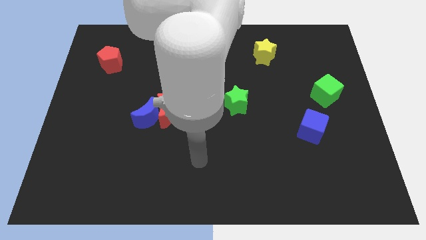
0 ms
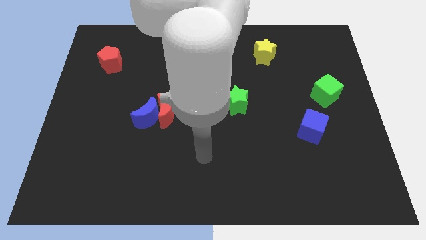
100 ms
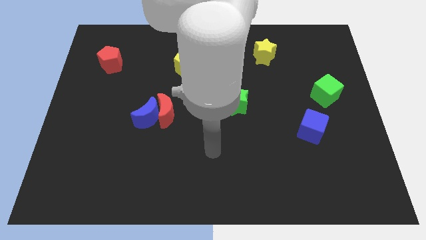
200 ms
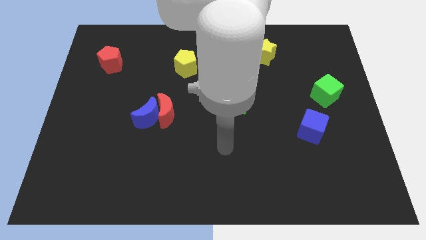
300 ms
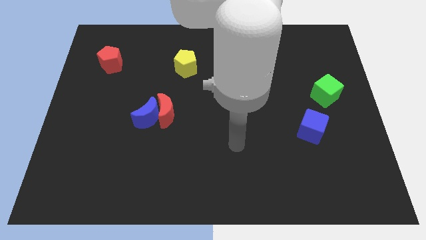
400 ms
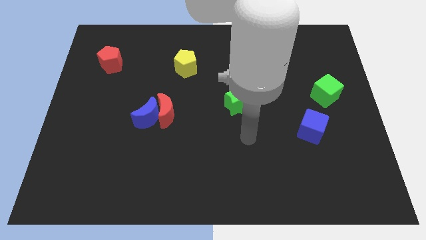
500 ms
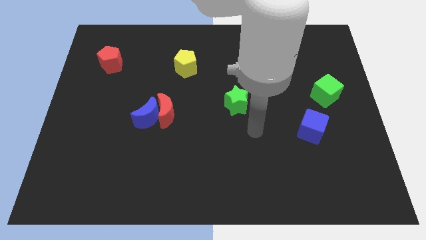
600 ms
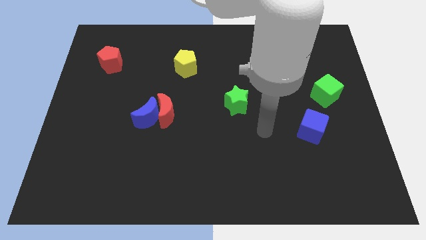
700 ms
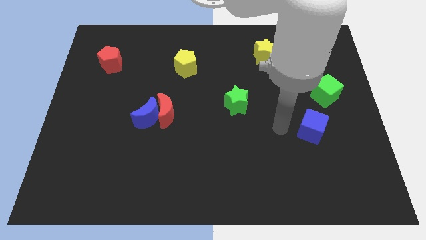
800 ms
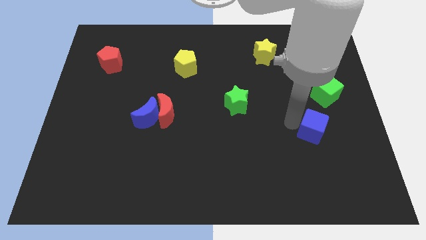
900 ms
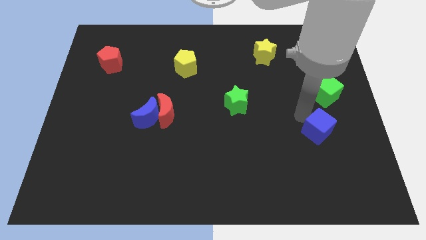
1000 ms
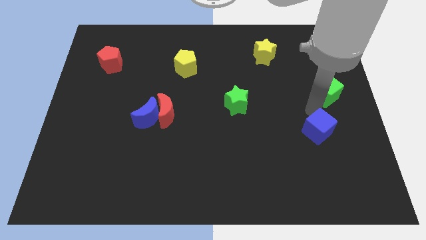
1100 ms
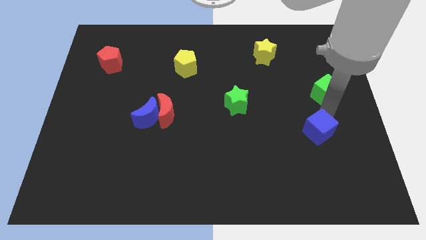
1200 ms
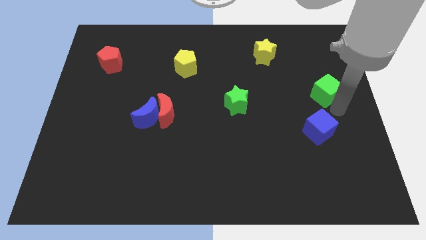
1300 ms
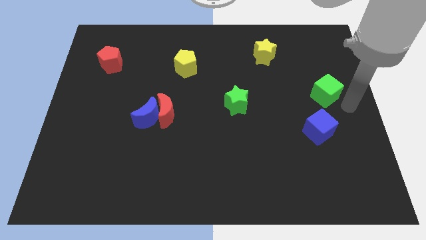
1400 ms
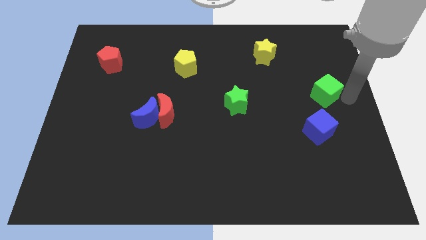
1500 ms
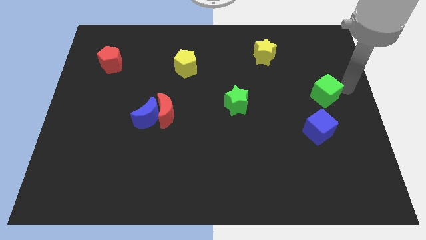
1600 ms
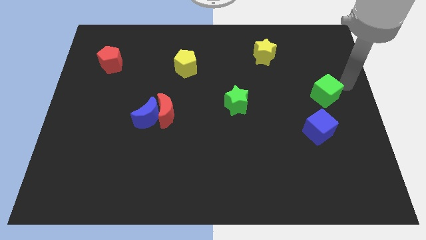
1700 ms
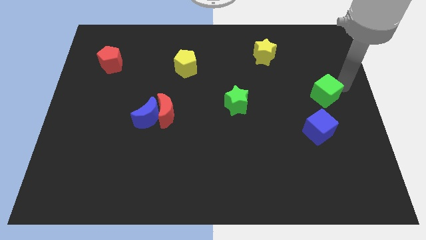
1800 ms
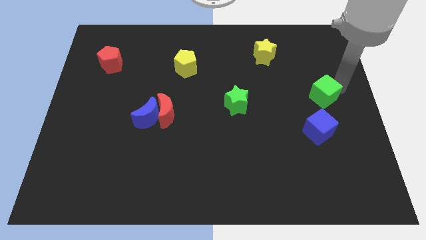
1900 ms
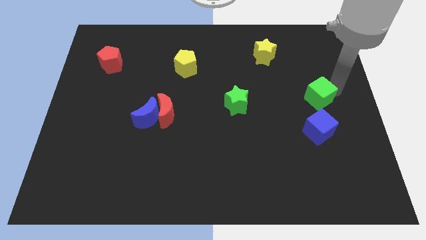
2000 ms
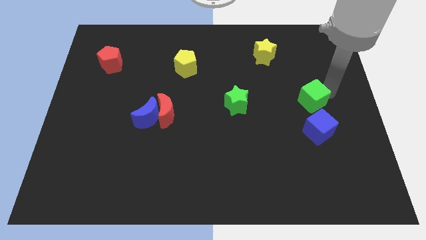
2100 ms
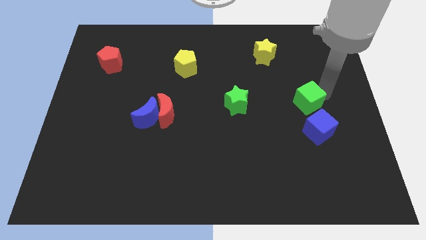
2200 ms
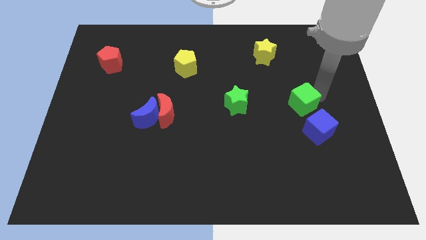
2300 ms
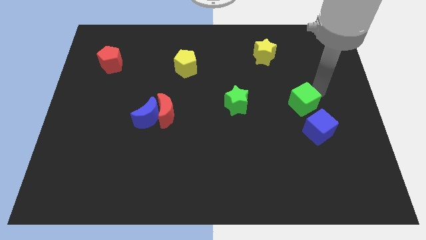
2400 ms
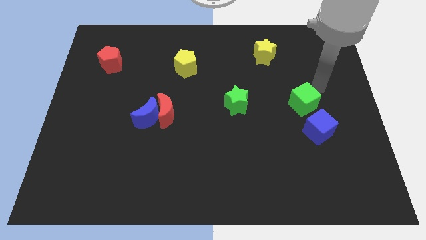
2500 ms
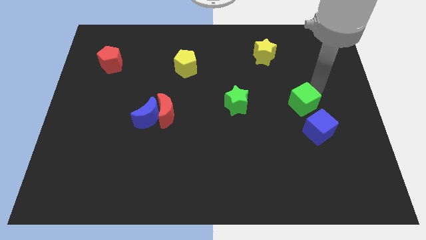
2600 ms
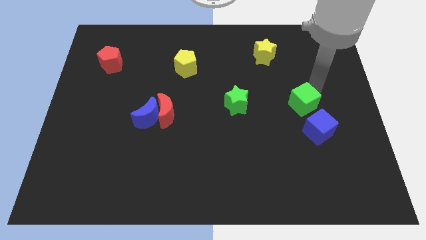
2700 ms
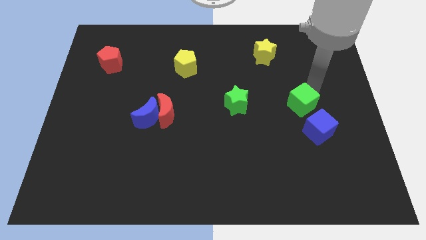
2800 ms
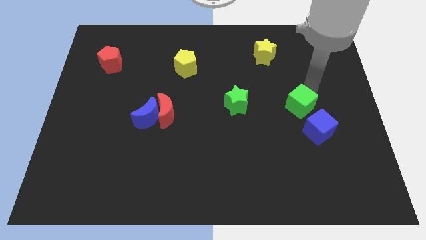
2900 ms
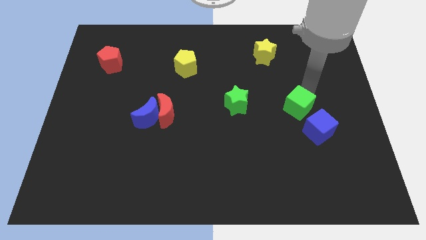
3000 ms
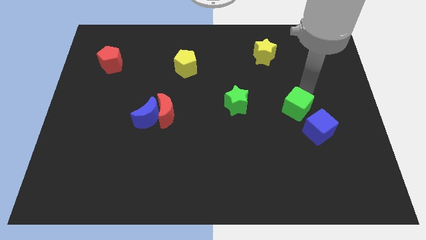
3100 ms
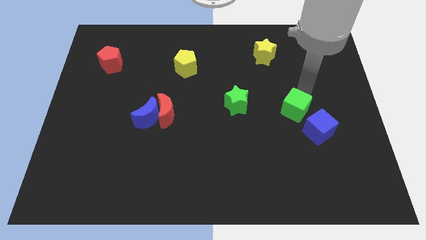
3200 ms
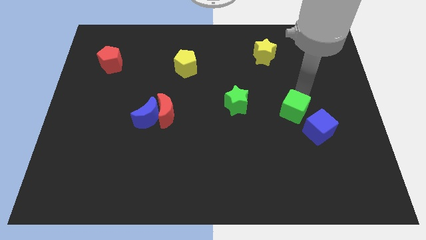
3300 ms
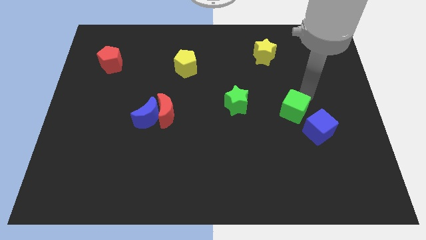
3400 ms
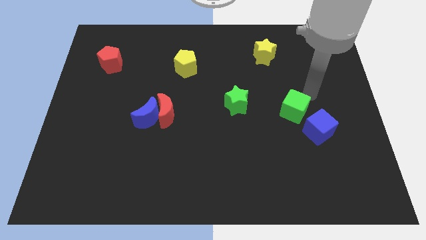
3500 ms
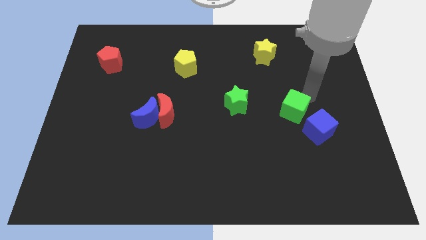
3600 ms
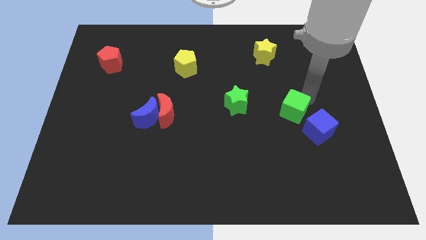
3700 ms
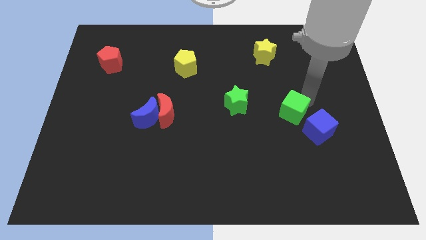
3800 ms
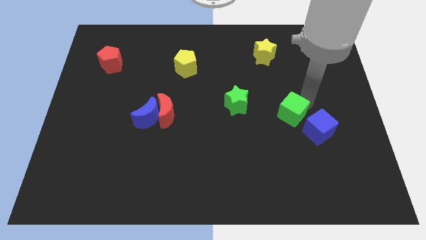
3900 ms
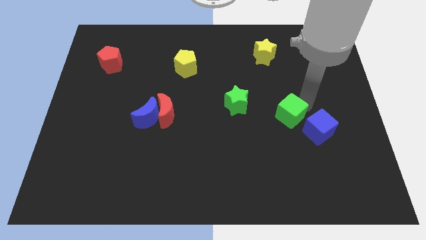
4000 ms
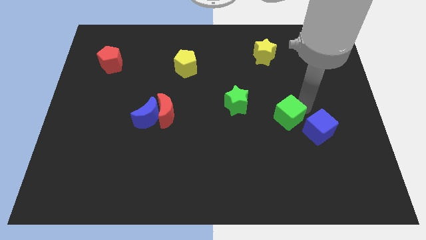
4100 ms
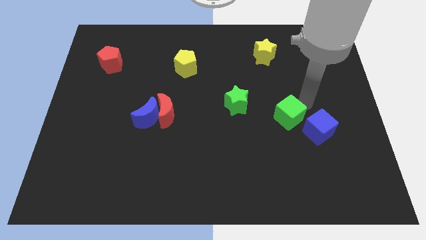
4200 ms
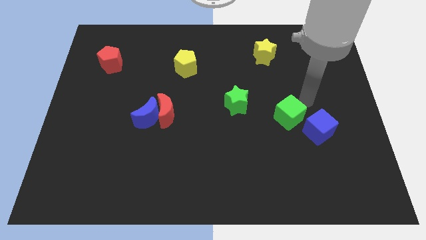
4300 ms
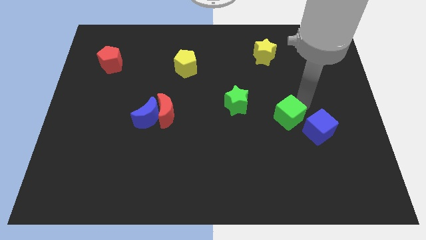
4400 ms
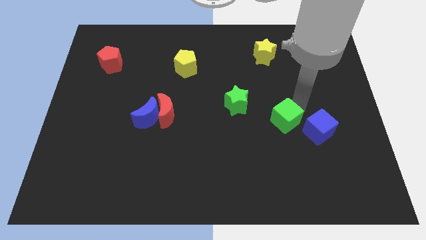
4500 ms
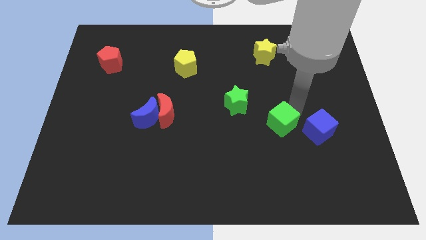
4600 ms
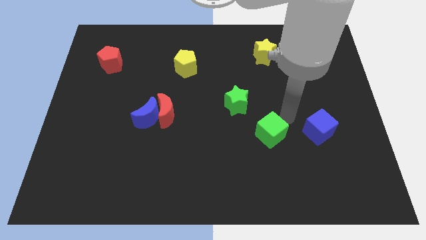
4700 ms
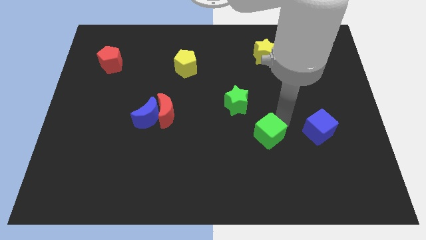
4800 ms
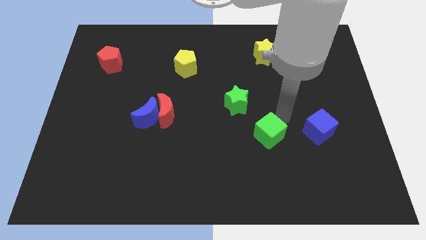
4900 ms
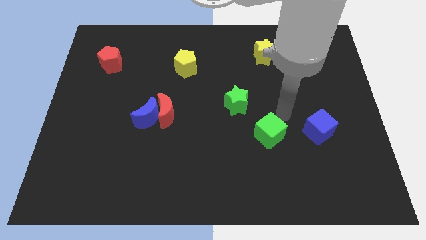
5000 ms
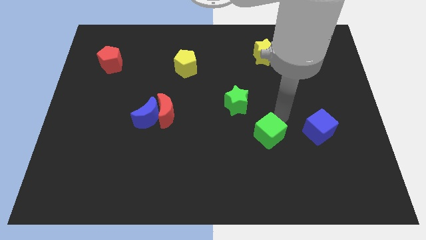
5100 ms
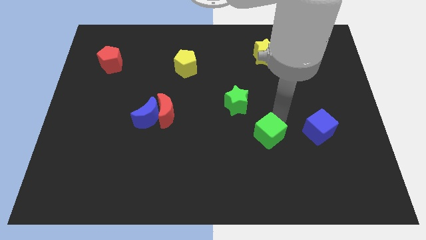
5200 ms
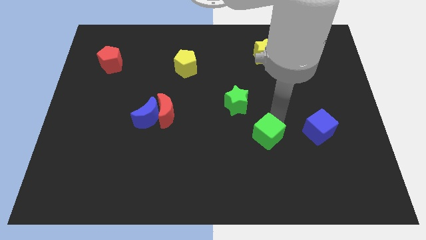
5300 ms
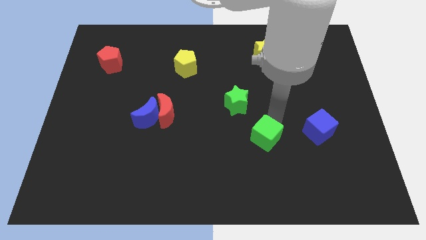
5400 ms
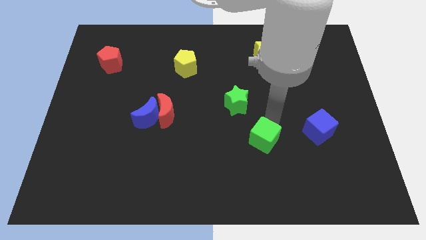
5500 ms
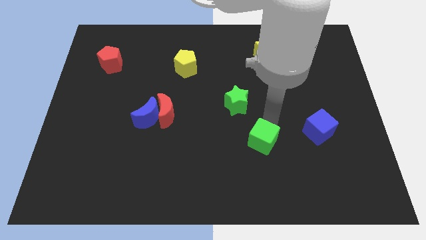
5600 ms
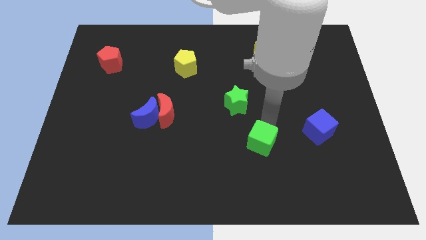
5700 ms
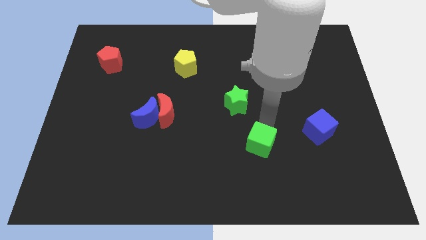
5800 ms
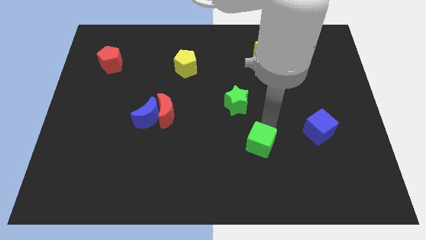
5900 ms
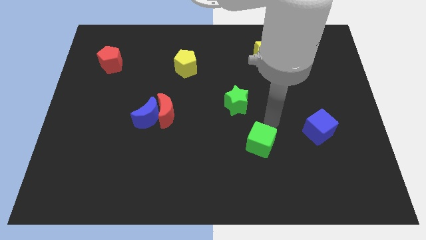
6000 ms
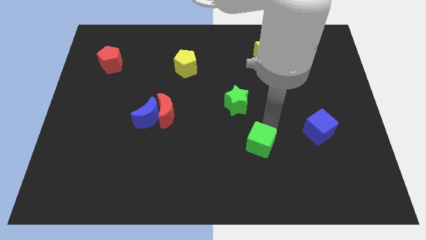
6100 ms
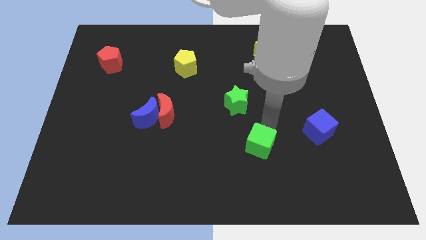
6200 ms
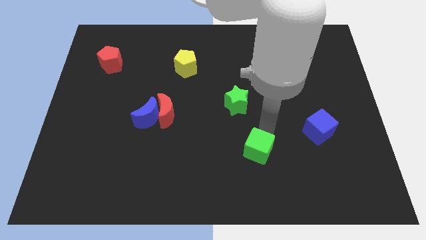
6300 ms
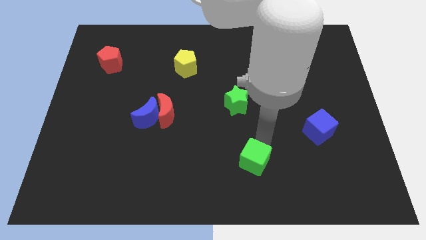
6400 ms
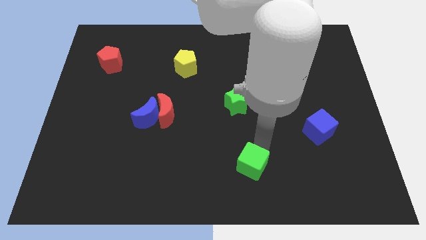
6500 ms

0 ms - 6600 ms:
push the green cube to the bottom side
